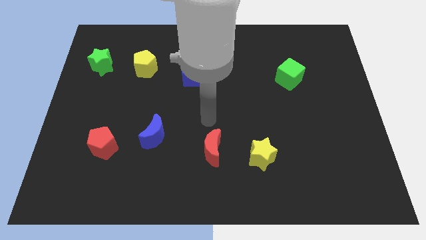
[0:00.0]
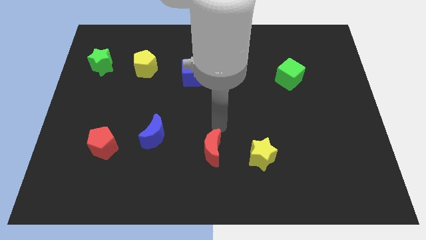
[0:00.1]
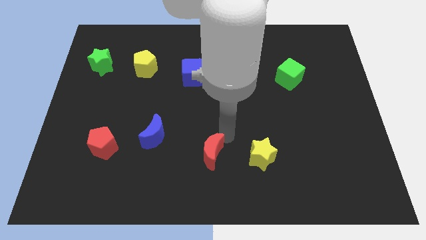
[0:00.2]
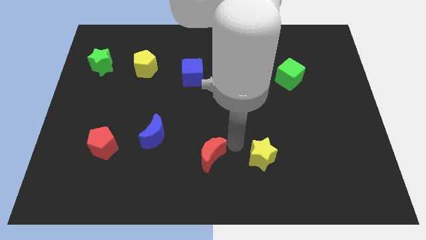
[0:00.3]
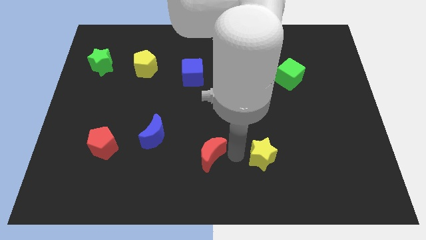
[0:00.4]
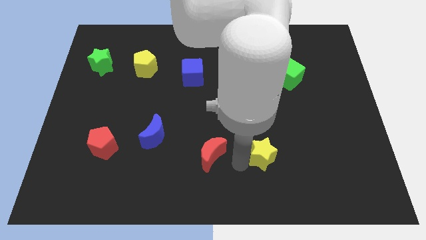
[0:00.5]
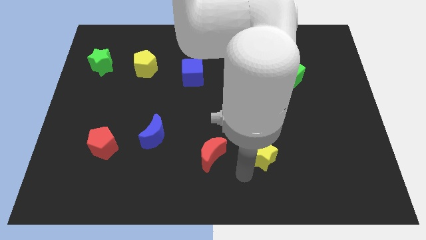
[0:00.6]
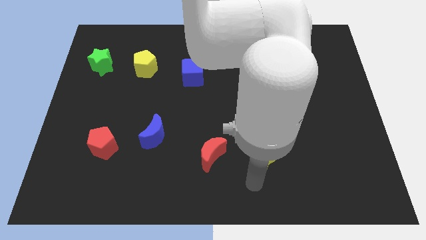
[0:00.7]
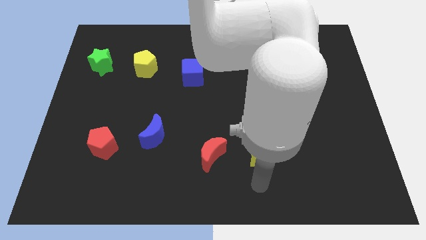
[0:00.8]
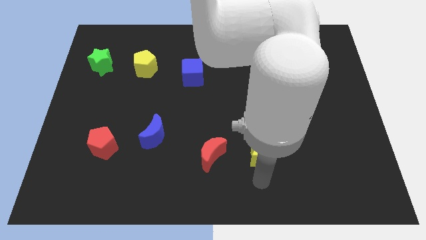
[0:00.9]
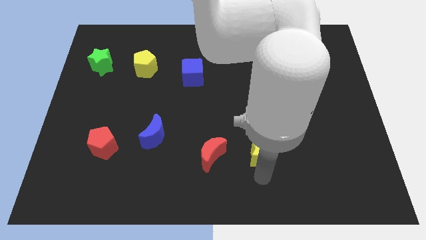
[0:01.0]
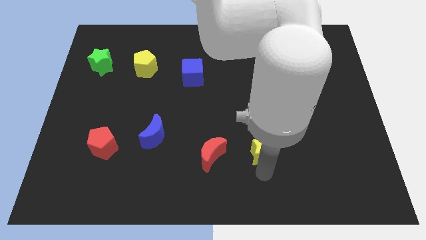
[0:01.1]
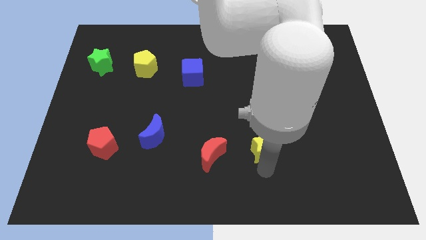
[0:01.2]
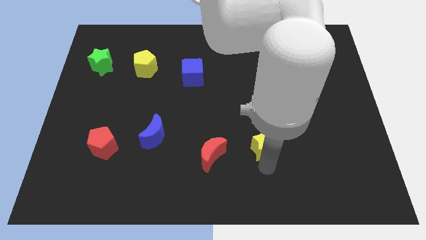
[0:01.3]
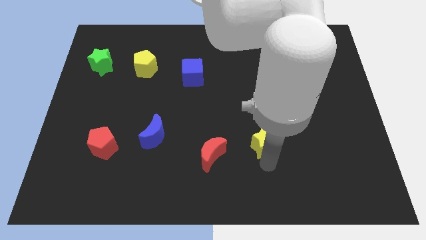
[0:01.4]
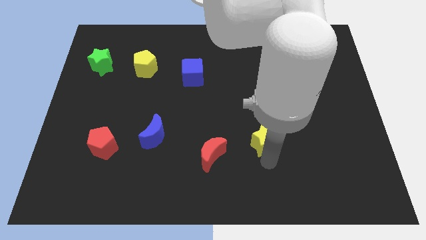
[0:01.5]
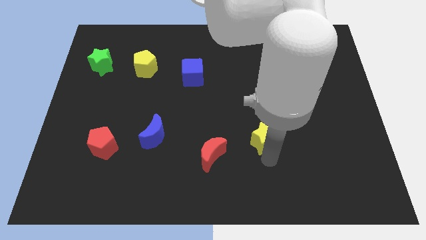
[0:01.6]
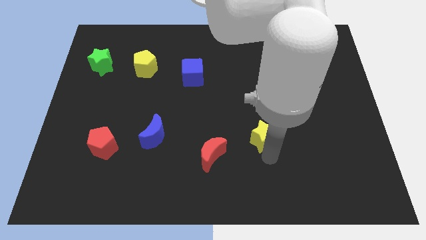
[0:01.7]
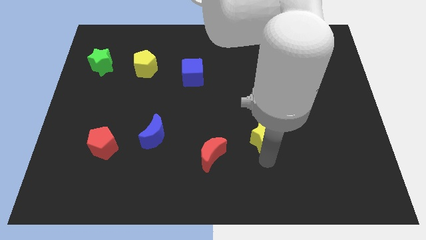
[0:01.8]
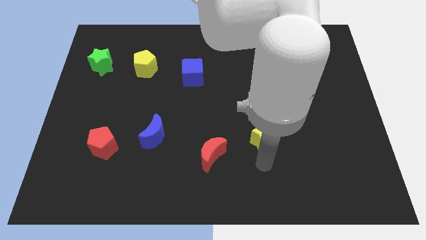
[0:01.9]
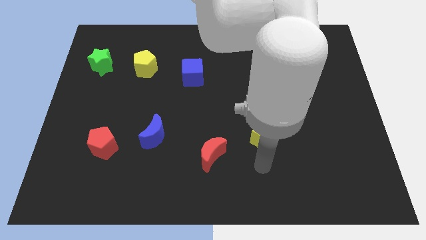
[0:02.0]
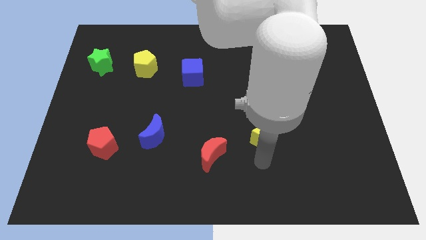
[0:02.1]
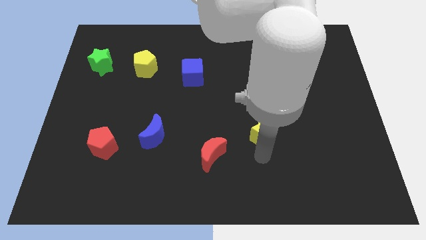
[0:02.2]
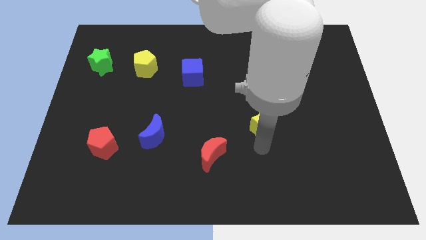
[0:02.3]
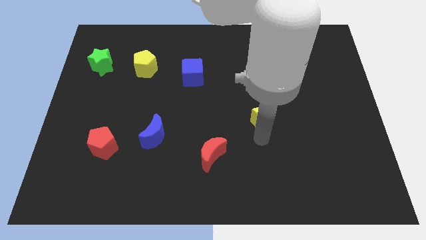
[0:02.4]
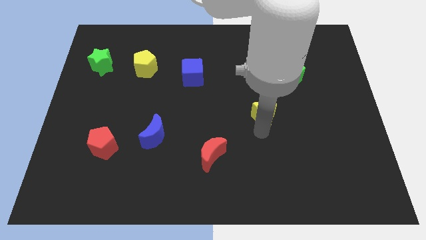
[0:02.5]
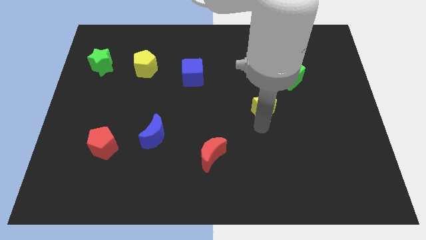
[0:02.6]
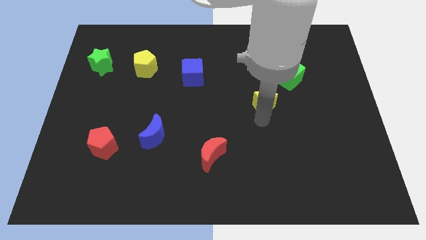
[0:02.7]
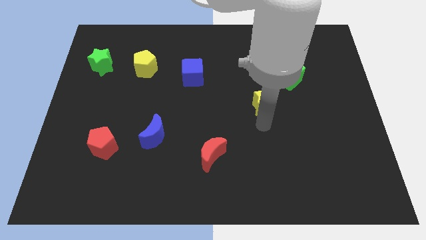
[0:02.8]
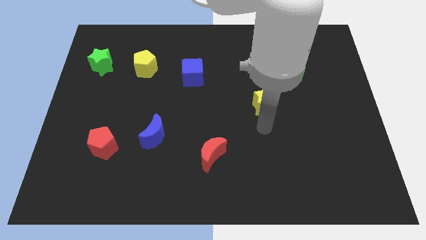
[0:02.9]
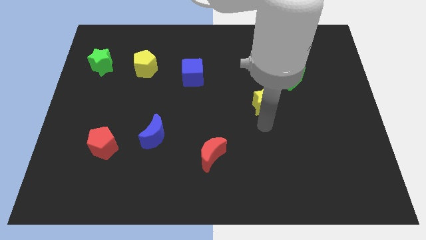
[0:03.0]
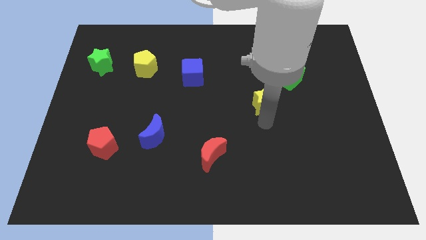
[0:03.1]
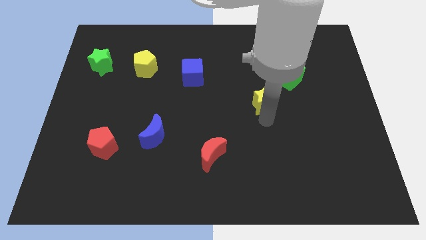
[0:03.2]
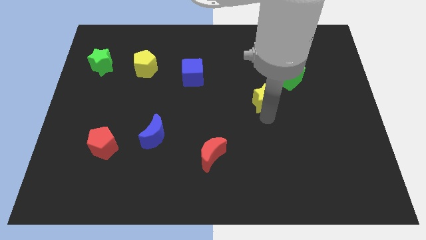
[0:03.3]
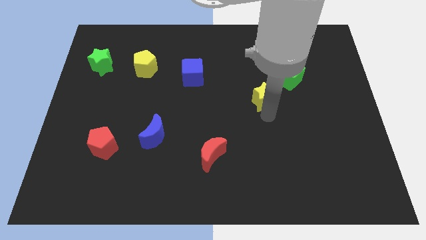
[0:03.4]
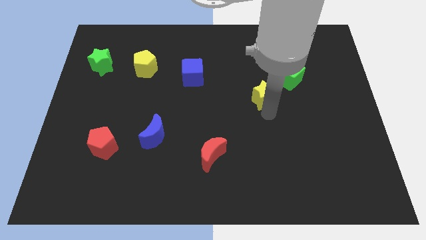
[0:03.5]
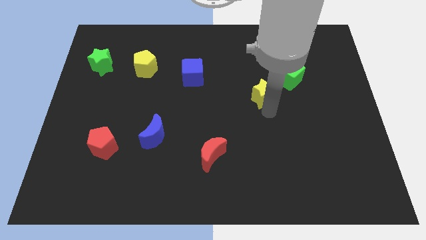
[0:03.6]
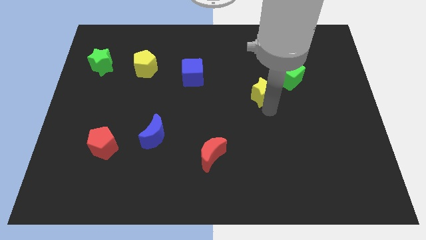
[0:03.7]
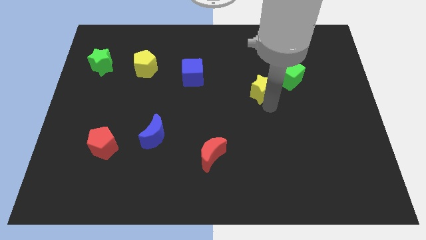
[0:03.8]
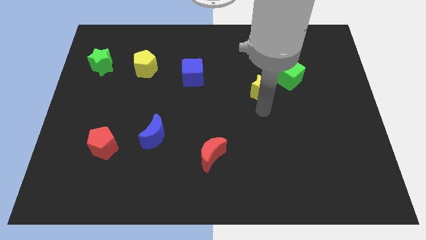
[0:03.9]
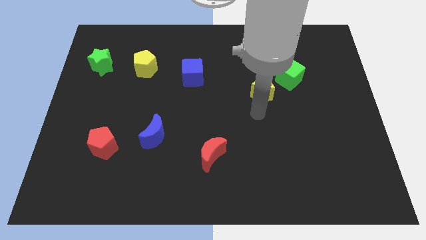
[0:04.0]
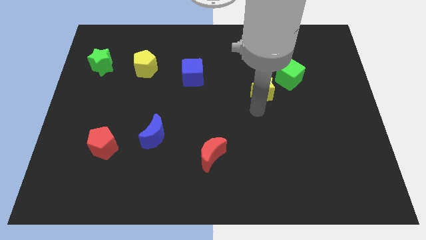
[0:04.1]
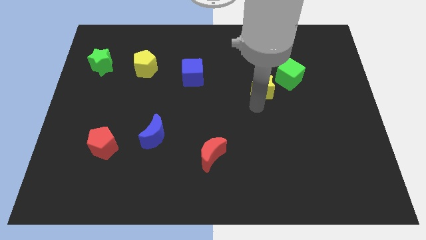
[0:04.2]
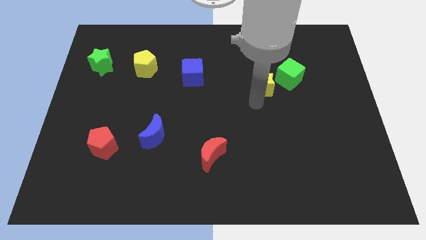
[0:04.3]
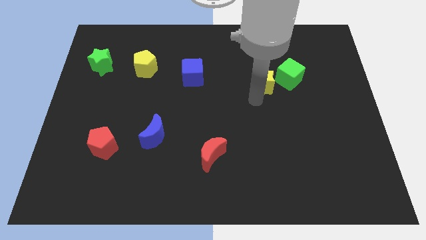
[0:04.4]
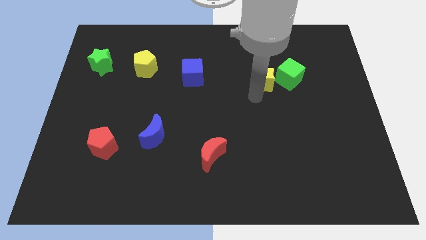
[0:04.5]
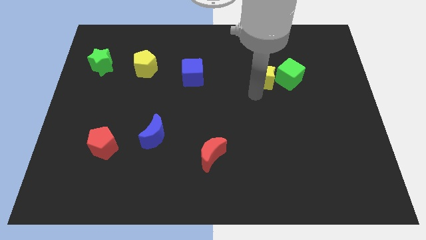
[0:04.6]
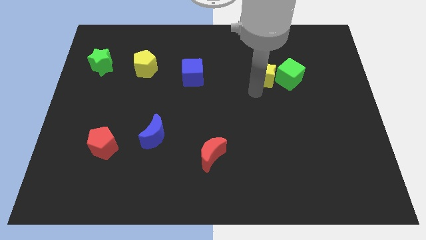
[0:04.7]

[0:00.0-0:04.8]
slide the yellow star to the top left side of the green cube

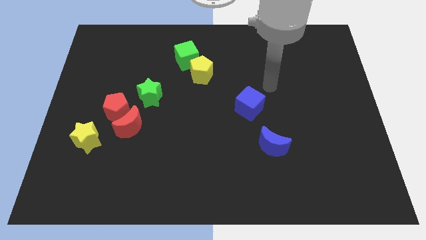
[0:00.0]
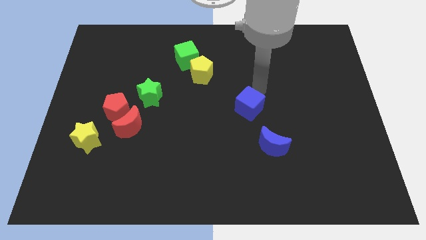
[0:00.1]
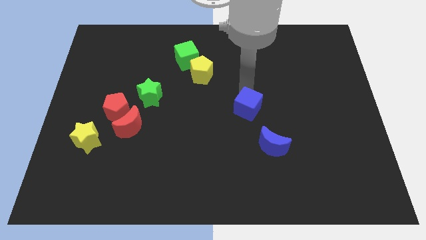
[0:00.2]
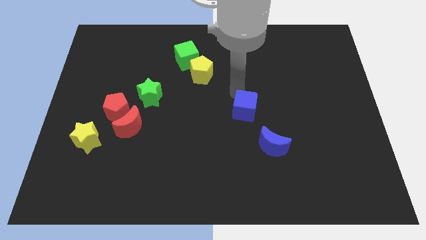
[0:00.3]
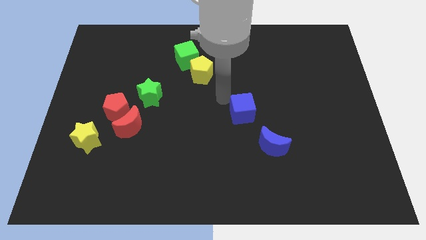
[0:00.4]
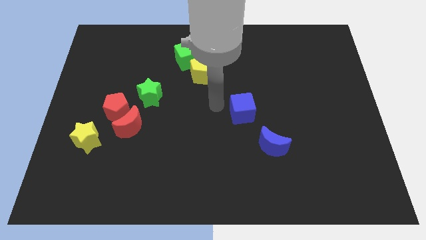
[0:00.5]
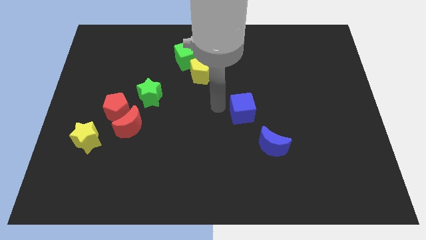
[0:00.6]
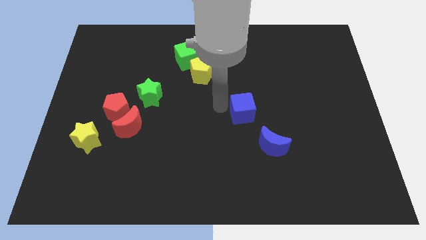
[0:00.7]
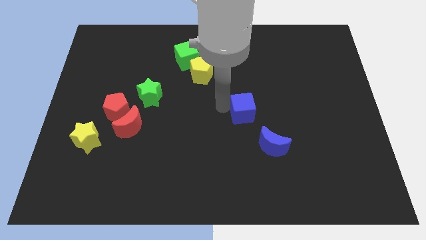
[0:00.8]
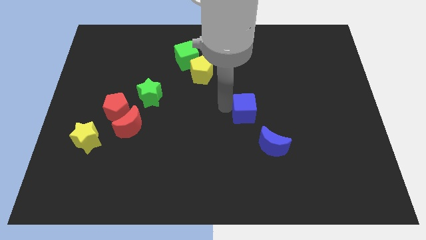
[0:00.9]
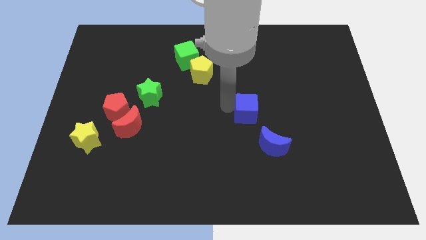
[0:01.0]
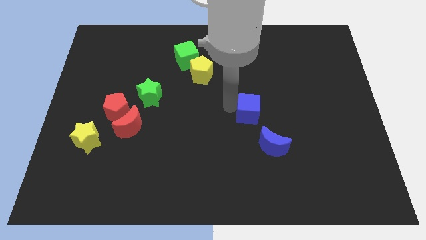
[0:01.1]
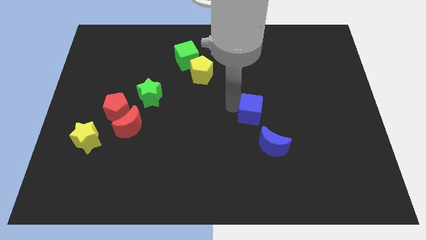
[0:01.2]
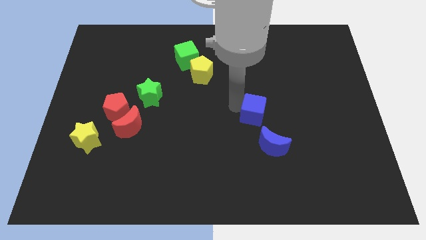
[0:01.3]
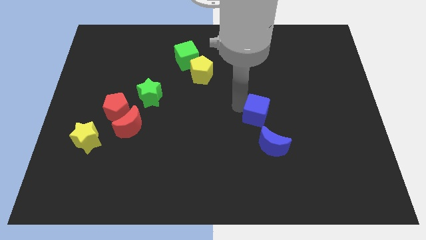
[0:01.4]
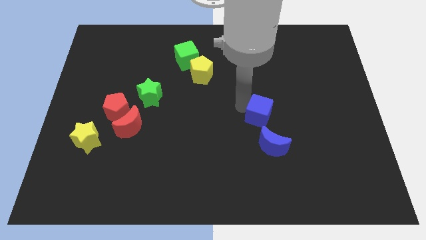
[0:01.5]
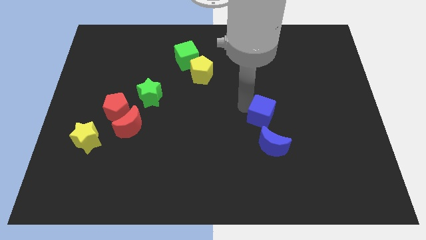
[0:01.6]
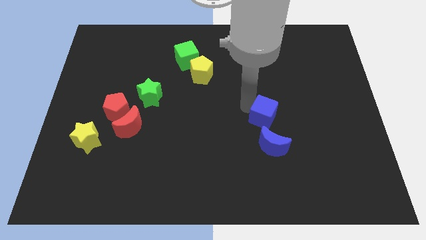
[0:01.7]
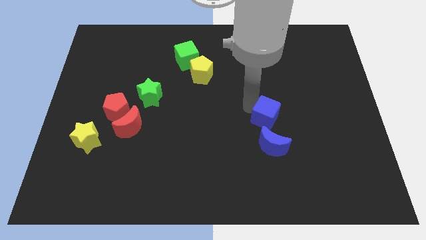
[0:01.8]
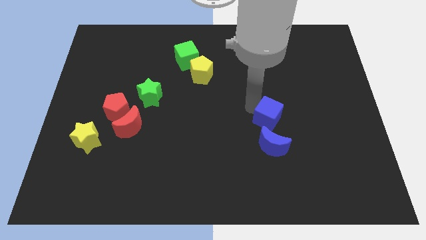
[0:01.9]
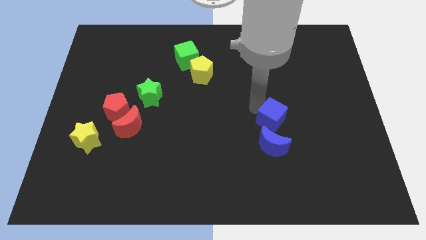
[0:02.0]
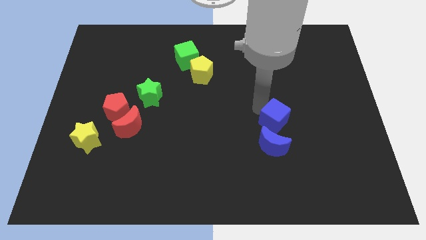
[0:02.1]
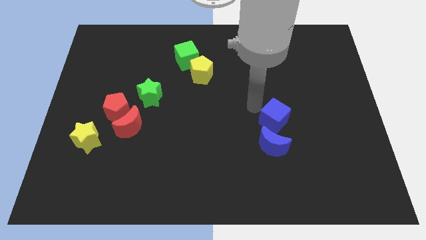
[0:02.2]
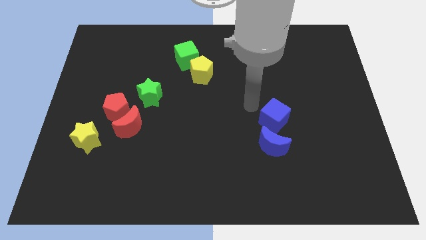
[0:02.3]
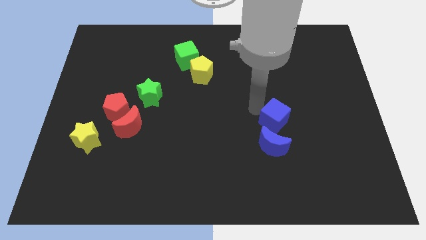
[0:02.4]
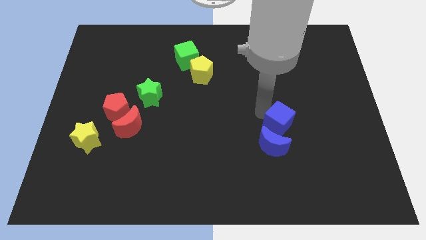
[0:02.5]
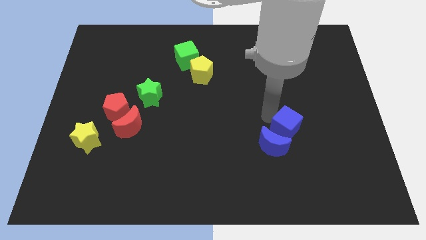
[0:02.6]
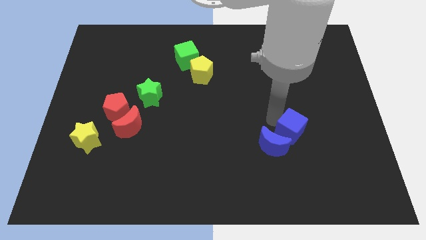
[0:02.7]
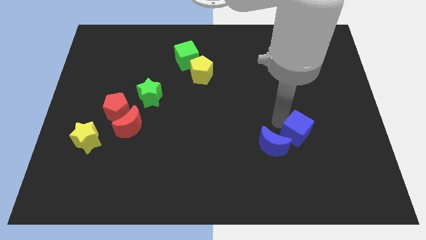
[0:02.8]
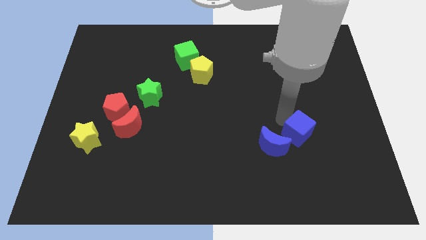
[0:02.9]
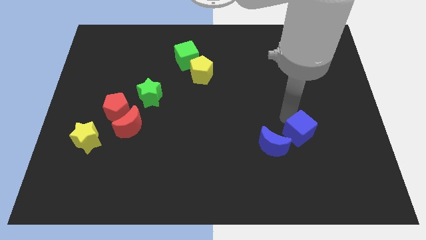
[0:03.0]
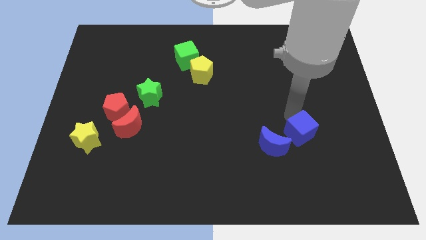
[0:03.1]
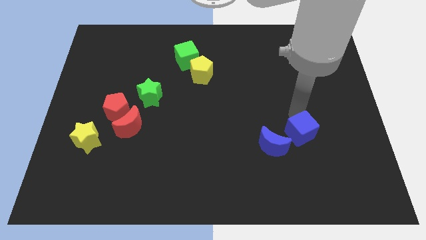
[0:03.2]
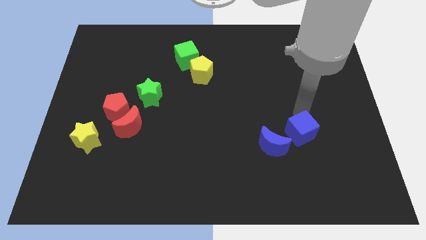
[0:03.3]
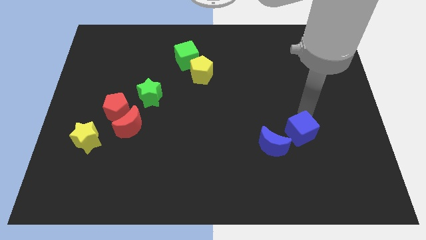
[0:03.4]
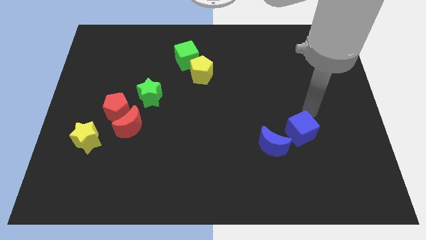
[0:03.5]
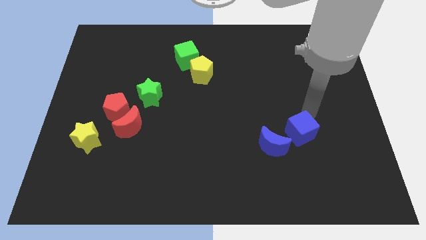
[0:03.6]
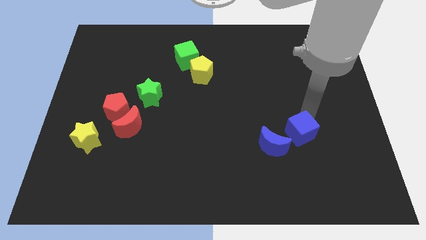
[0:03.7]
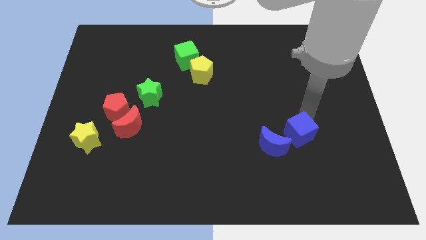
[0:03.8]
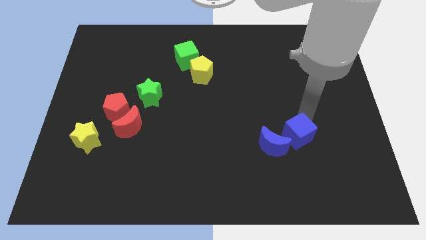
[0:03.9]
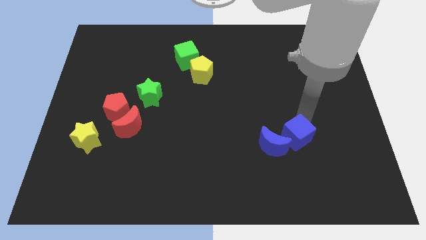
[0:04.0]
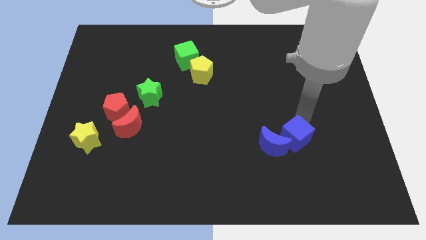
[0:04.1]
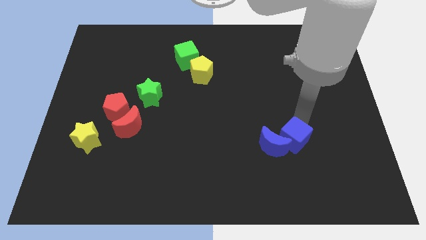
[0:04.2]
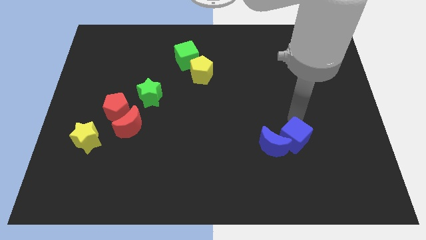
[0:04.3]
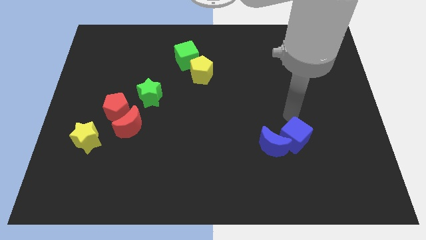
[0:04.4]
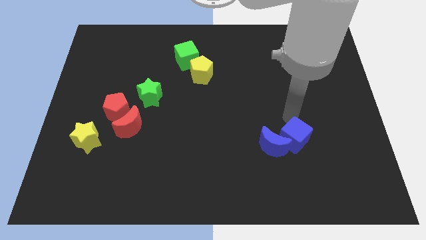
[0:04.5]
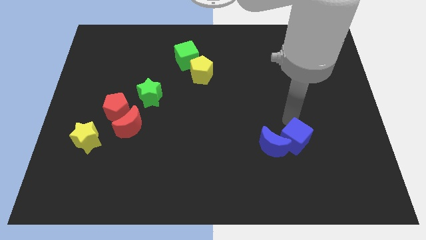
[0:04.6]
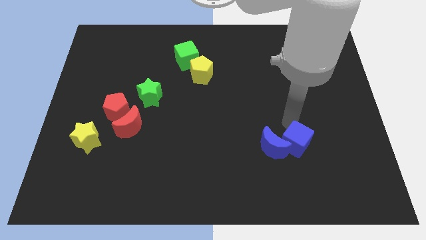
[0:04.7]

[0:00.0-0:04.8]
move the blue cube to the bottom right of the blue moon
